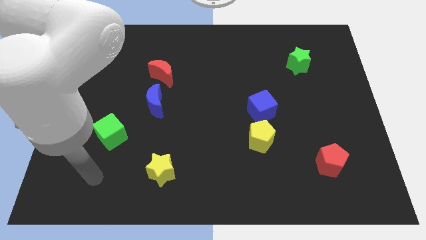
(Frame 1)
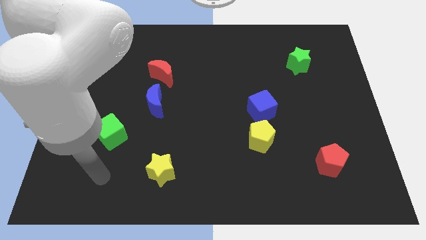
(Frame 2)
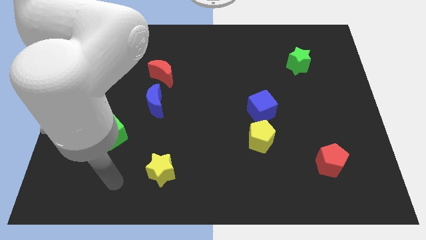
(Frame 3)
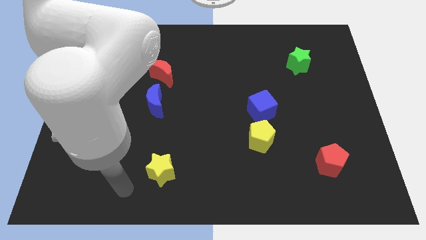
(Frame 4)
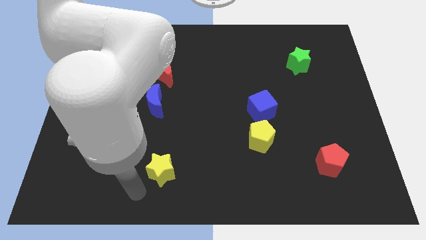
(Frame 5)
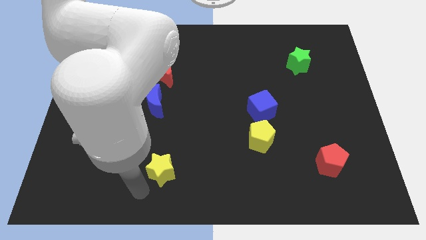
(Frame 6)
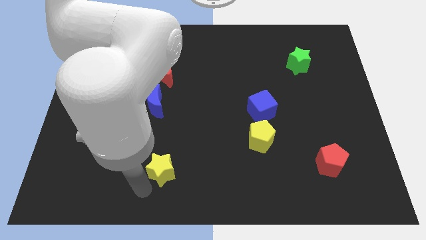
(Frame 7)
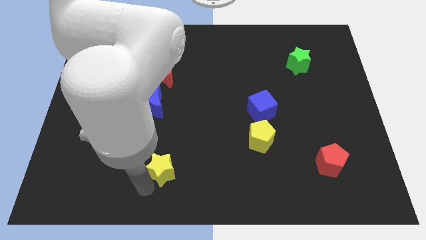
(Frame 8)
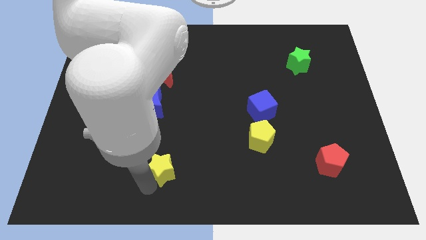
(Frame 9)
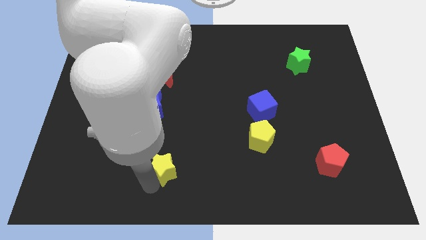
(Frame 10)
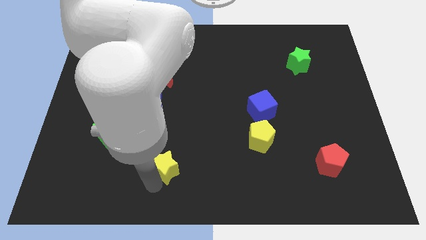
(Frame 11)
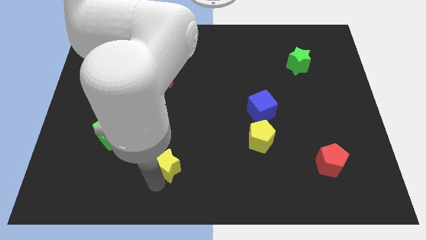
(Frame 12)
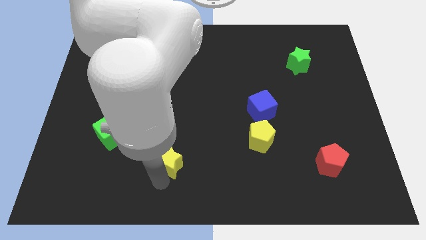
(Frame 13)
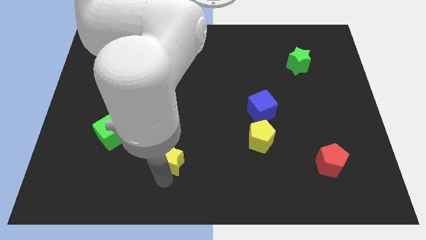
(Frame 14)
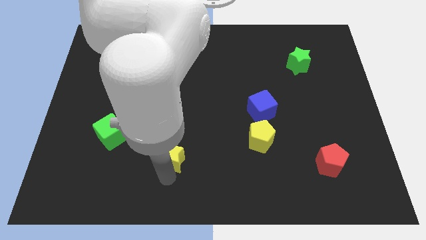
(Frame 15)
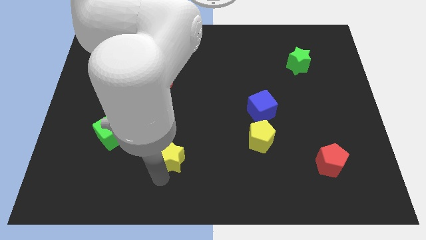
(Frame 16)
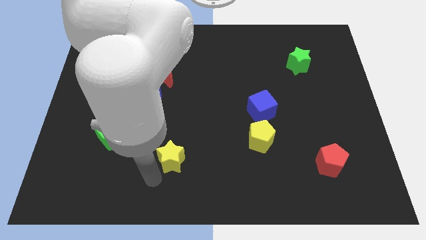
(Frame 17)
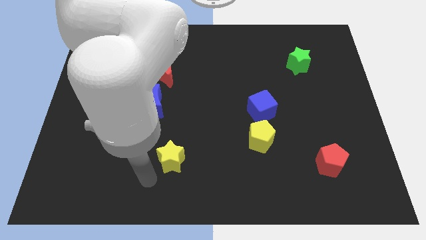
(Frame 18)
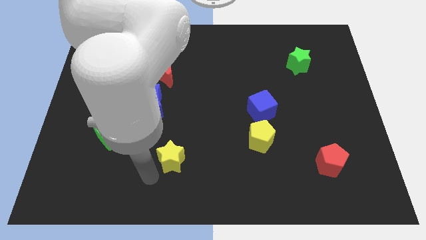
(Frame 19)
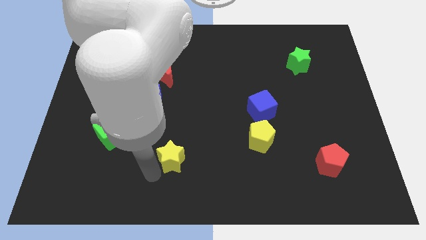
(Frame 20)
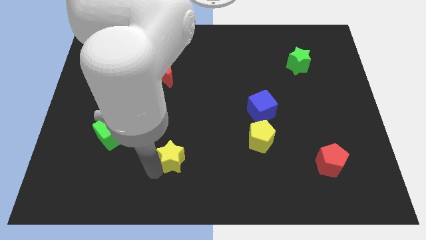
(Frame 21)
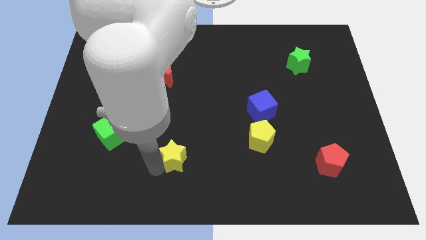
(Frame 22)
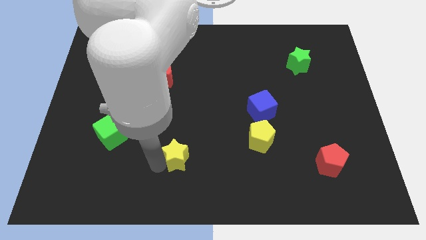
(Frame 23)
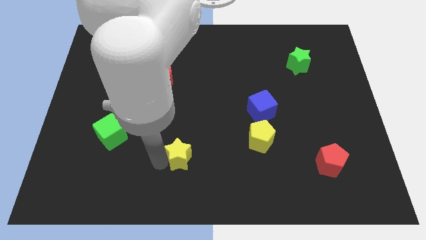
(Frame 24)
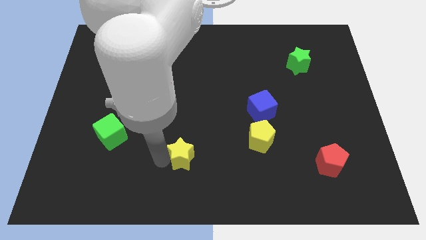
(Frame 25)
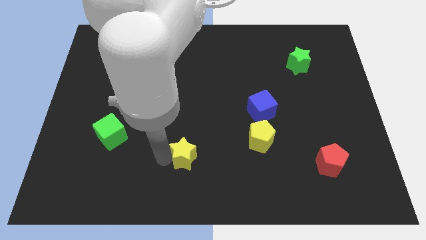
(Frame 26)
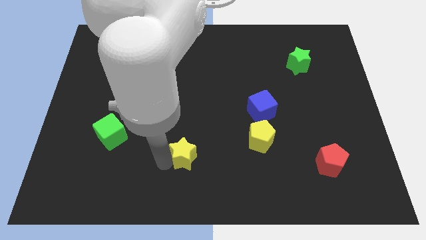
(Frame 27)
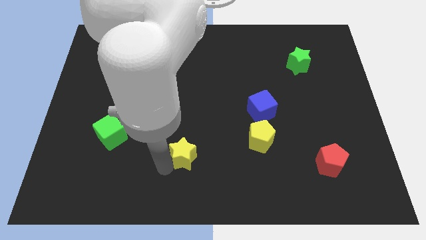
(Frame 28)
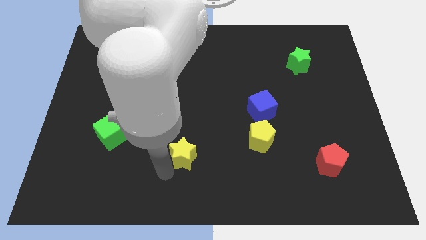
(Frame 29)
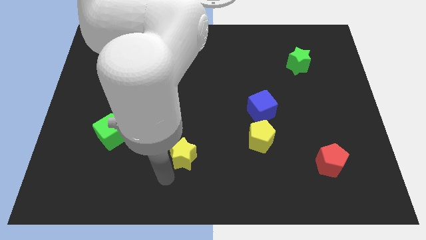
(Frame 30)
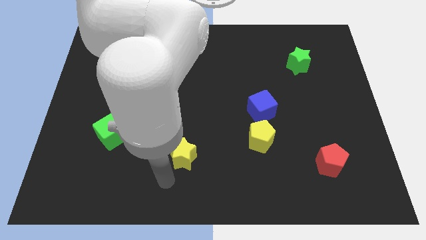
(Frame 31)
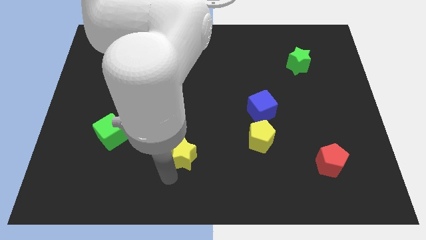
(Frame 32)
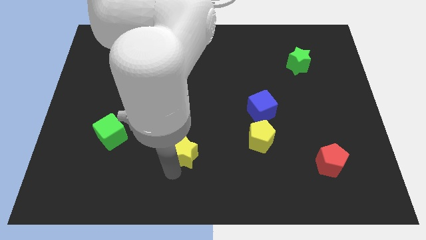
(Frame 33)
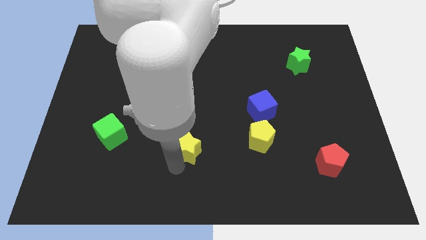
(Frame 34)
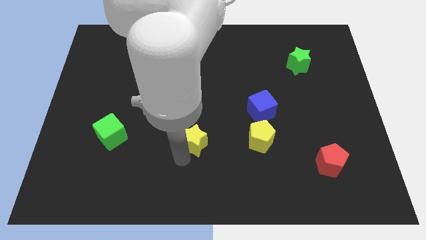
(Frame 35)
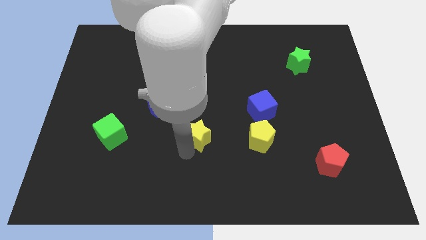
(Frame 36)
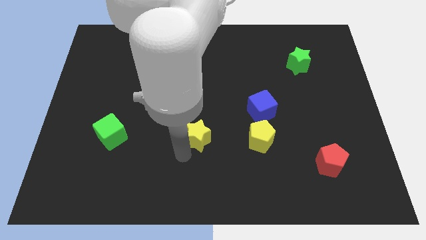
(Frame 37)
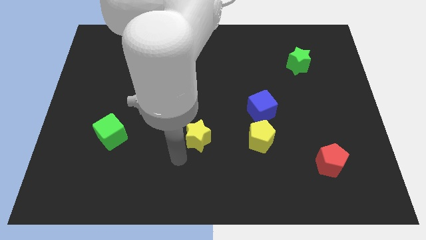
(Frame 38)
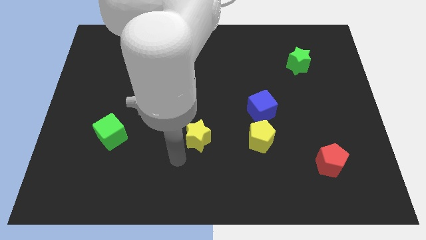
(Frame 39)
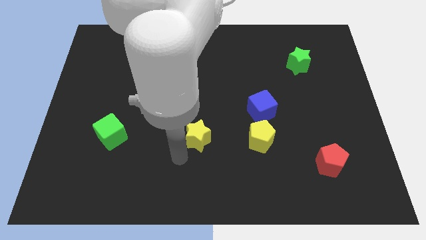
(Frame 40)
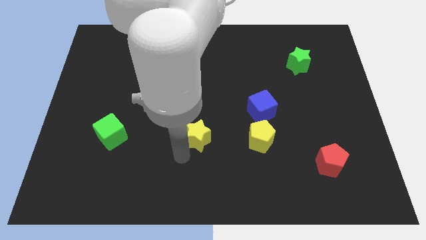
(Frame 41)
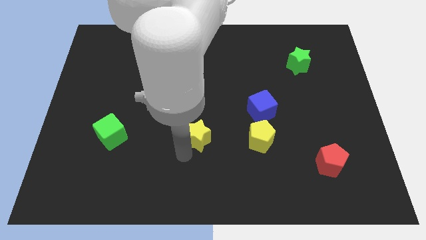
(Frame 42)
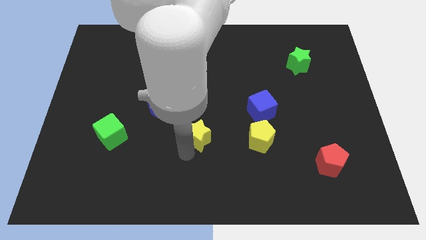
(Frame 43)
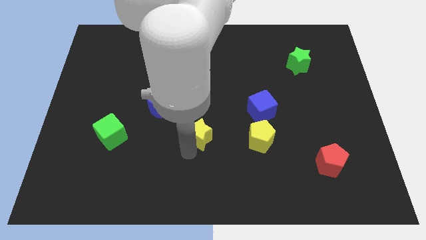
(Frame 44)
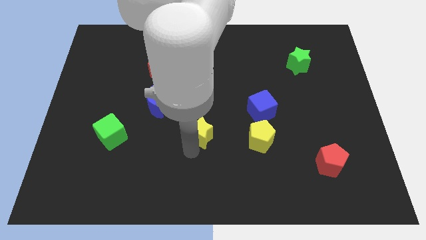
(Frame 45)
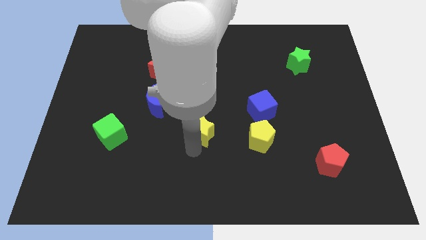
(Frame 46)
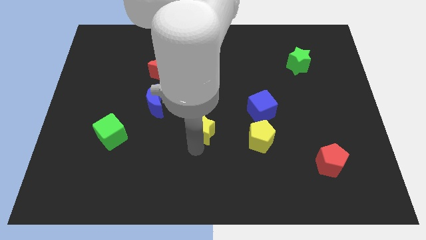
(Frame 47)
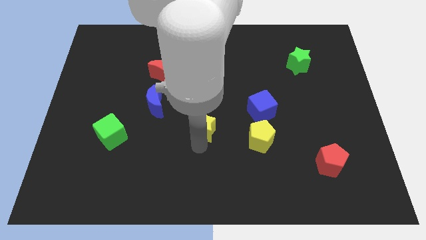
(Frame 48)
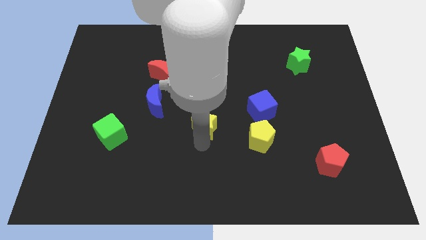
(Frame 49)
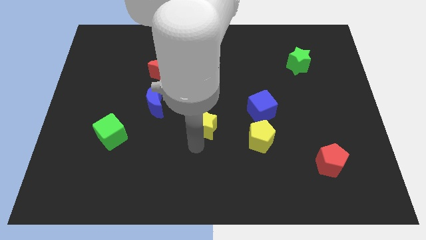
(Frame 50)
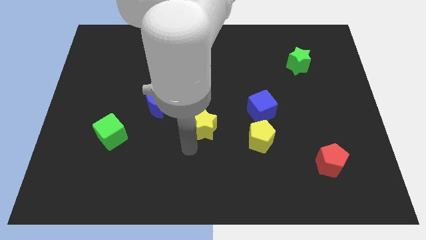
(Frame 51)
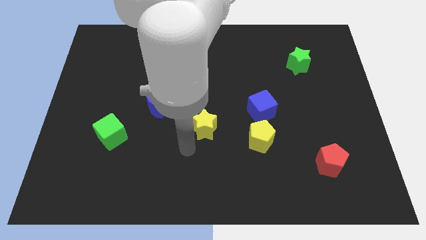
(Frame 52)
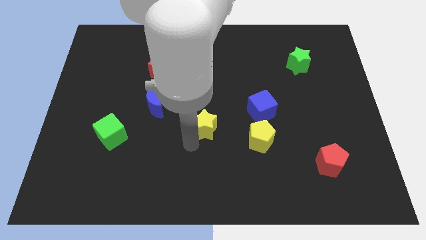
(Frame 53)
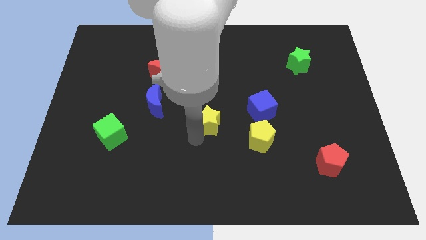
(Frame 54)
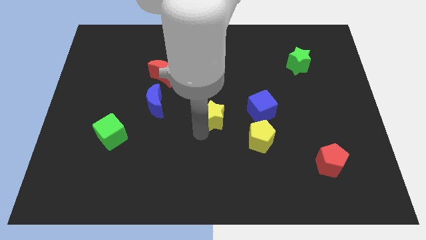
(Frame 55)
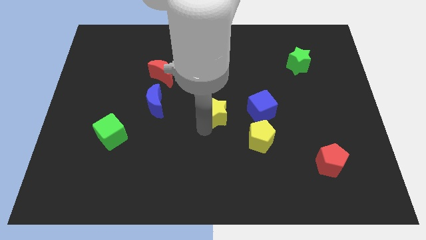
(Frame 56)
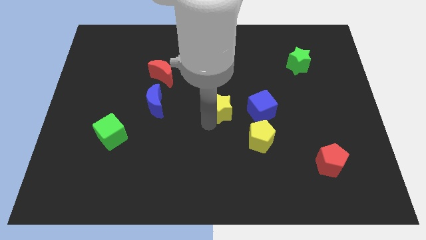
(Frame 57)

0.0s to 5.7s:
push the yellow star diagonally upwards and to the right

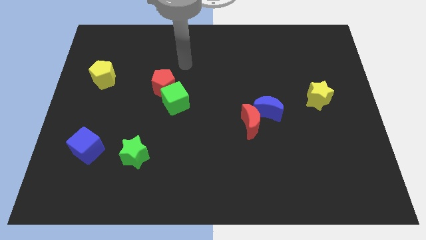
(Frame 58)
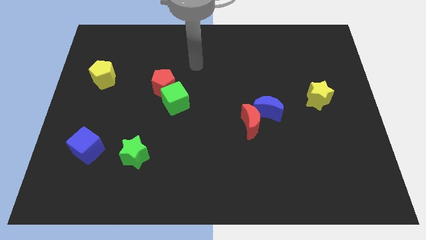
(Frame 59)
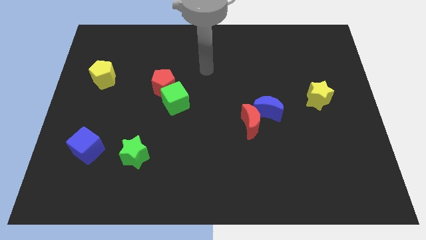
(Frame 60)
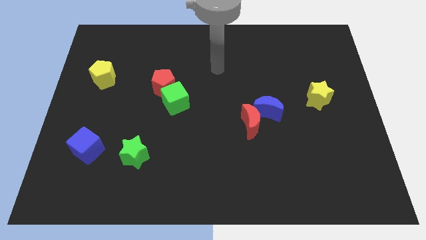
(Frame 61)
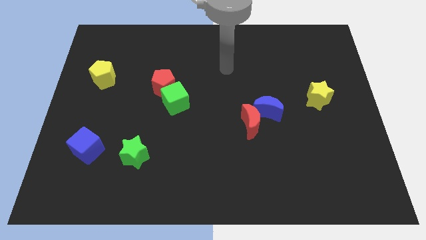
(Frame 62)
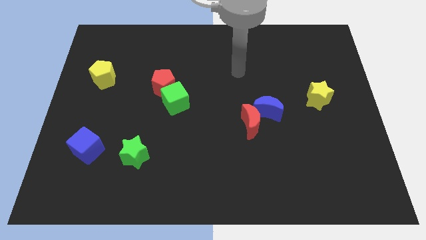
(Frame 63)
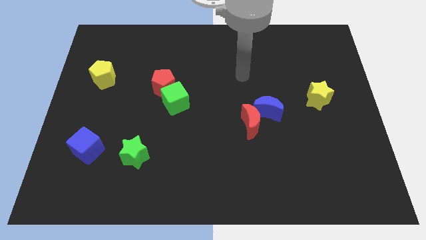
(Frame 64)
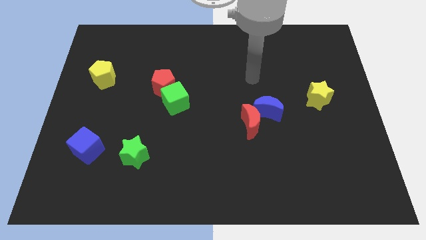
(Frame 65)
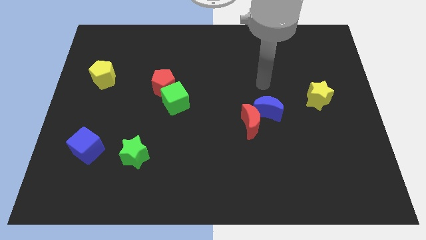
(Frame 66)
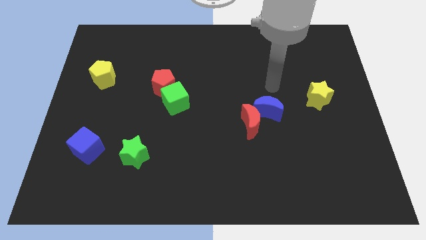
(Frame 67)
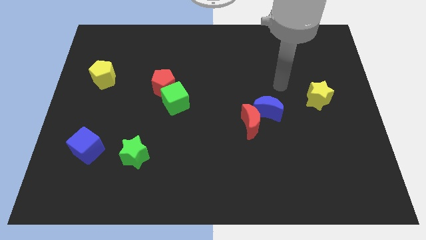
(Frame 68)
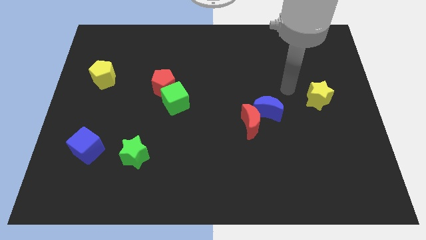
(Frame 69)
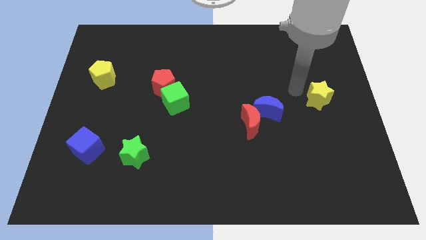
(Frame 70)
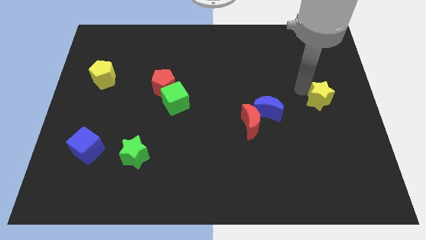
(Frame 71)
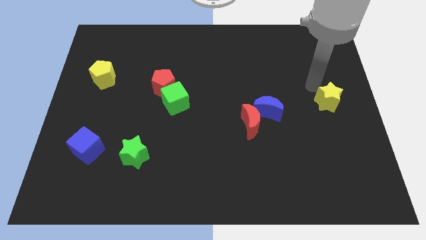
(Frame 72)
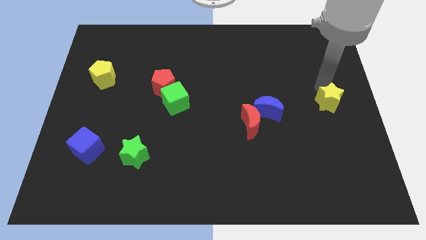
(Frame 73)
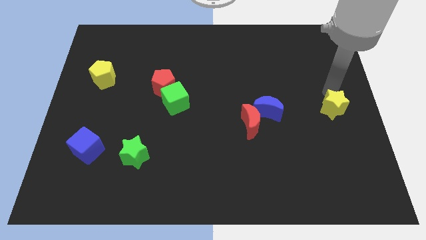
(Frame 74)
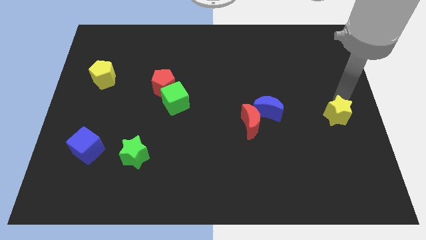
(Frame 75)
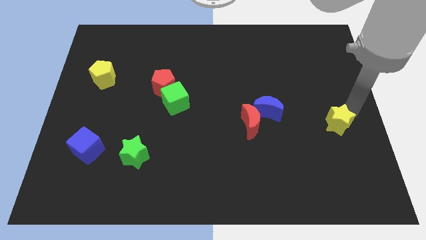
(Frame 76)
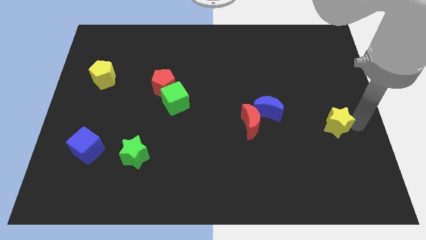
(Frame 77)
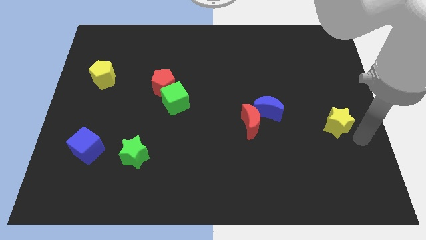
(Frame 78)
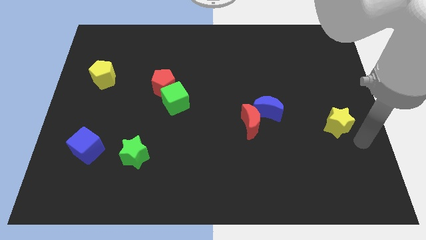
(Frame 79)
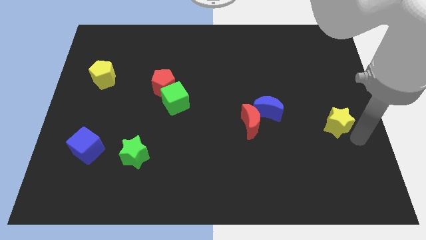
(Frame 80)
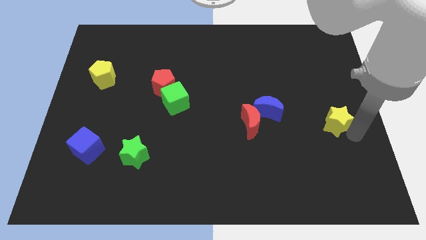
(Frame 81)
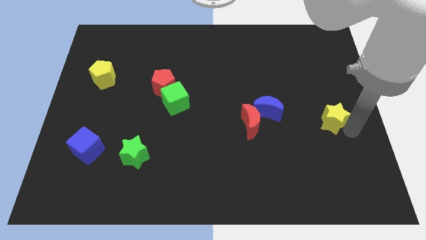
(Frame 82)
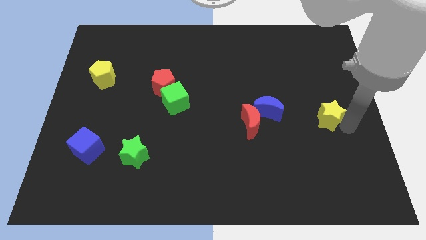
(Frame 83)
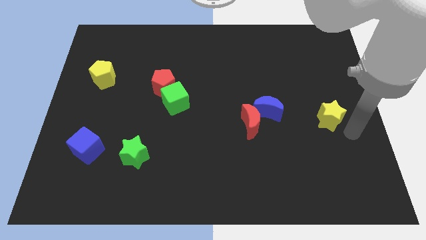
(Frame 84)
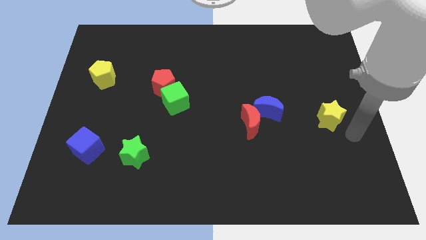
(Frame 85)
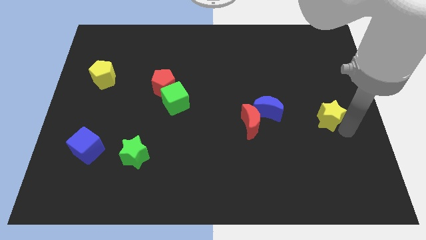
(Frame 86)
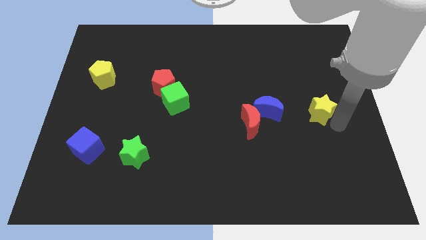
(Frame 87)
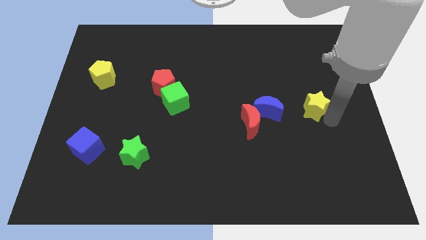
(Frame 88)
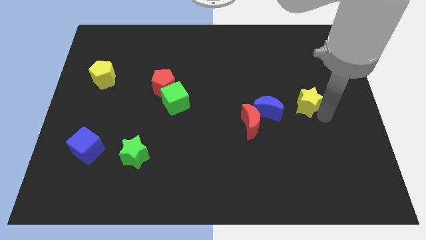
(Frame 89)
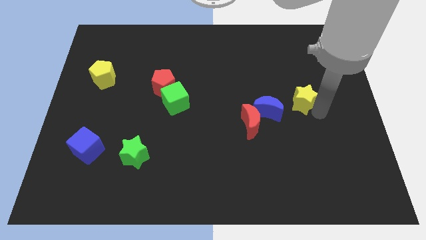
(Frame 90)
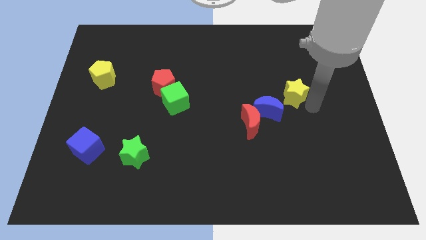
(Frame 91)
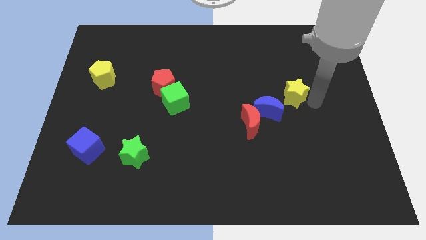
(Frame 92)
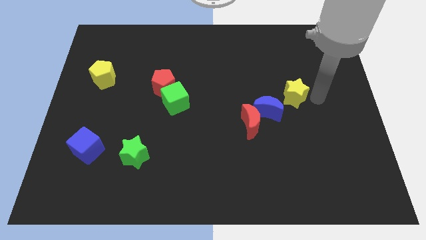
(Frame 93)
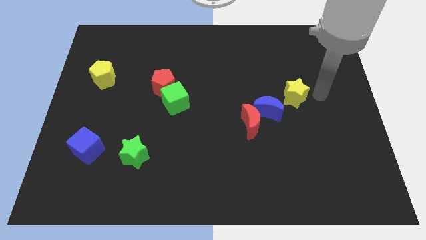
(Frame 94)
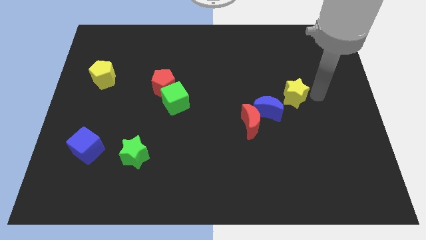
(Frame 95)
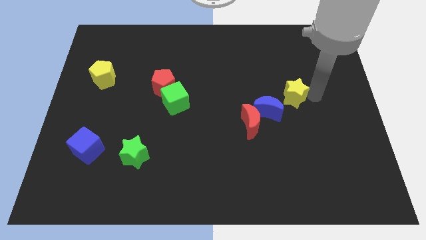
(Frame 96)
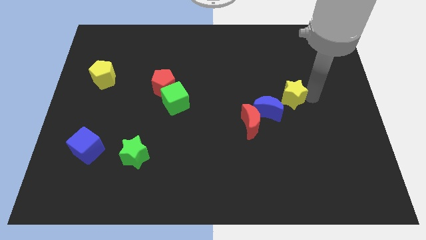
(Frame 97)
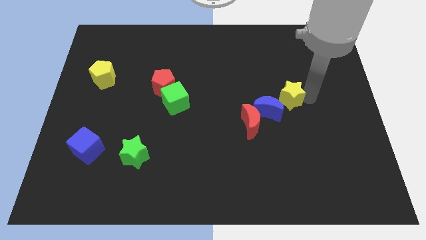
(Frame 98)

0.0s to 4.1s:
slightly slide the yellow star to the left
